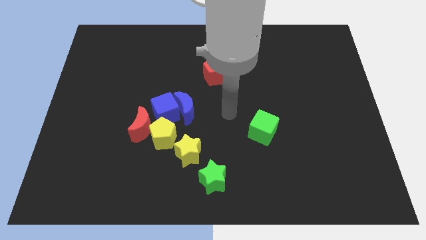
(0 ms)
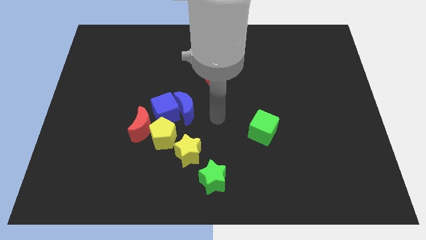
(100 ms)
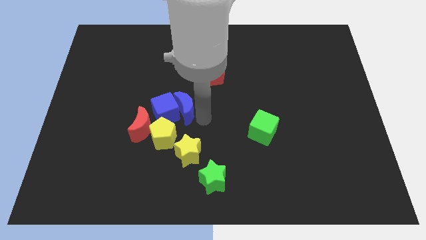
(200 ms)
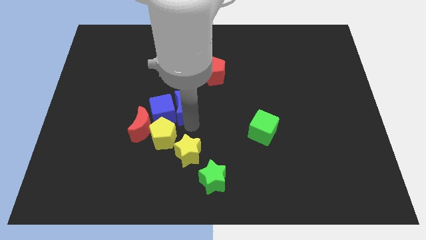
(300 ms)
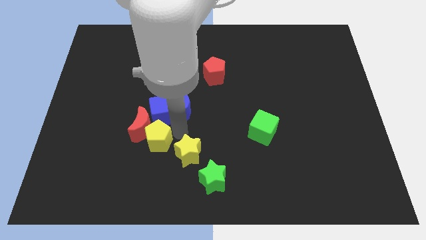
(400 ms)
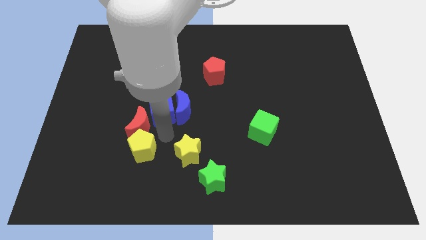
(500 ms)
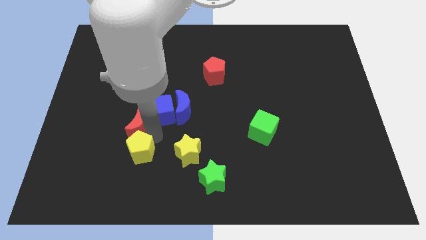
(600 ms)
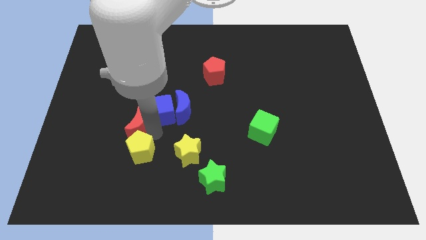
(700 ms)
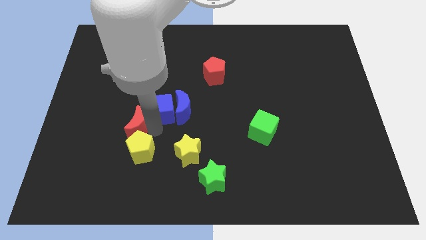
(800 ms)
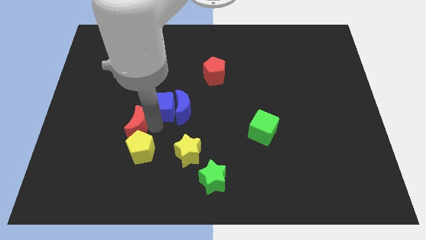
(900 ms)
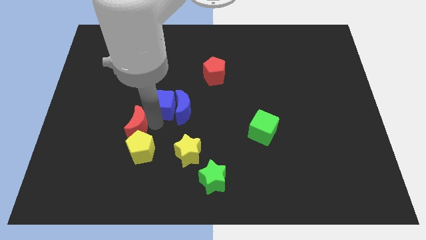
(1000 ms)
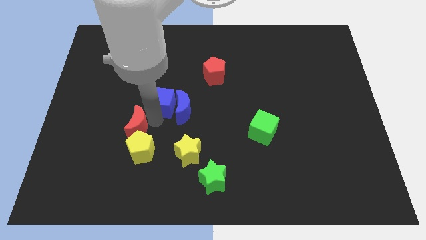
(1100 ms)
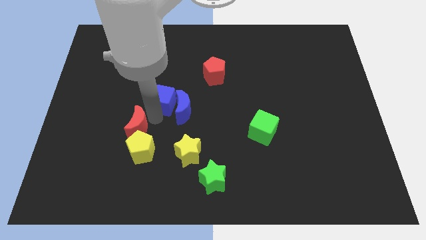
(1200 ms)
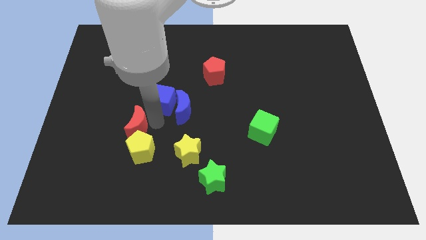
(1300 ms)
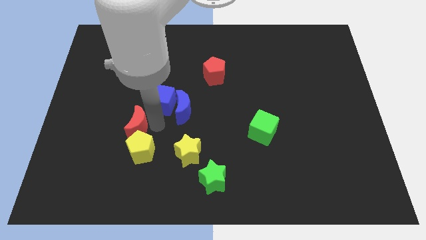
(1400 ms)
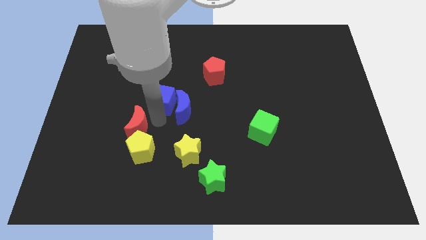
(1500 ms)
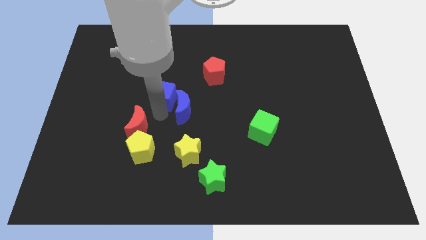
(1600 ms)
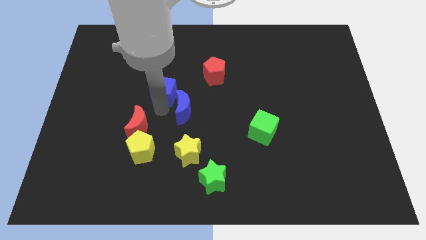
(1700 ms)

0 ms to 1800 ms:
move the blue cube away from the group

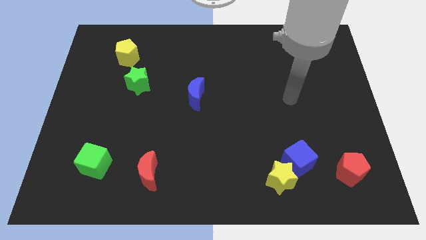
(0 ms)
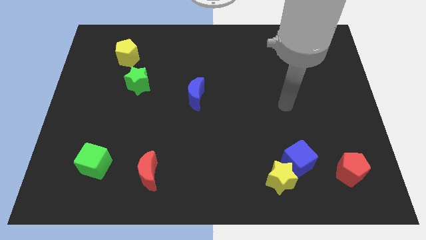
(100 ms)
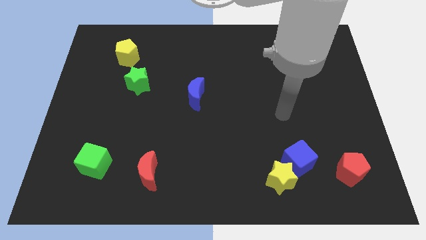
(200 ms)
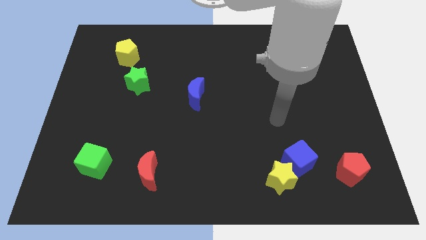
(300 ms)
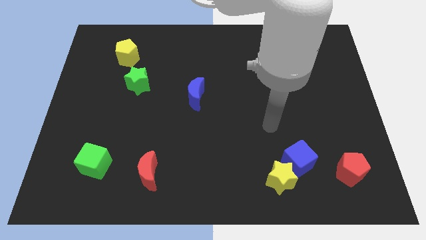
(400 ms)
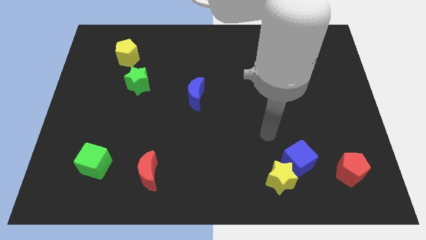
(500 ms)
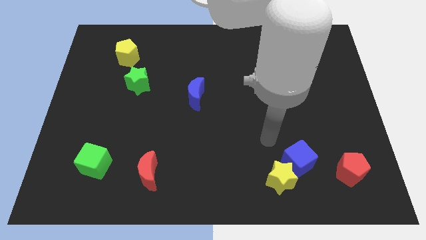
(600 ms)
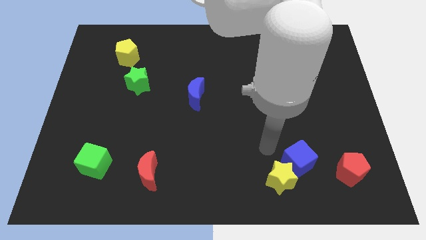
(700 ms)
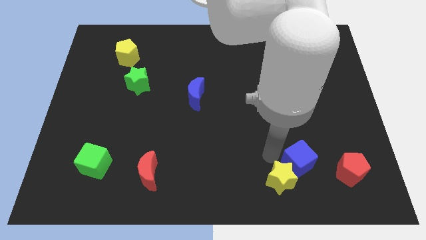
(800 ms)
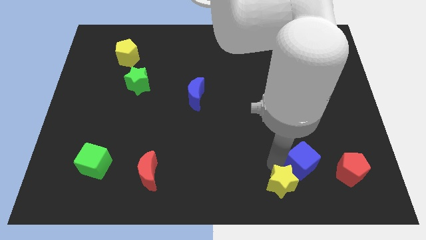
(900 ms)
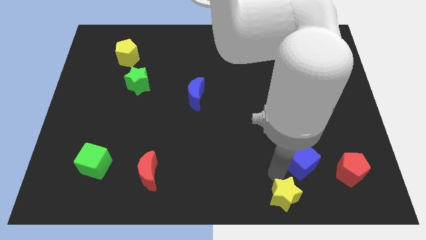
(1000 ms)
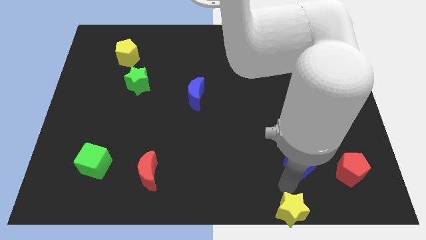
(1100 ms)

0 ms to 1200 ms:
move the blue cube away from the yellow star

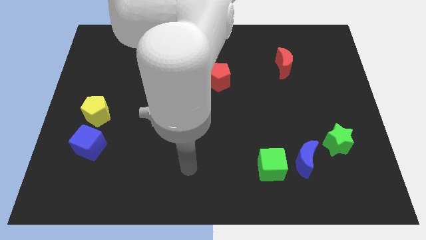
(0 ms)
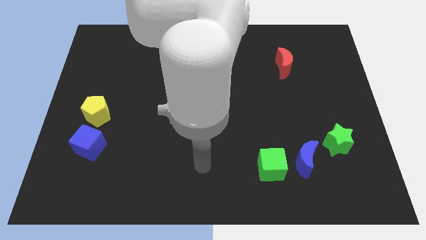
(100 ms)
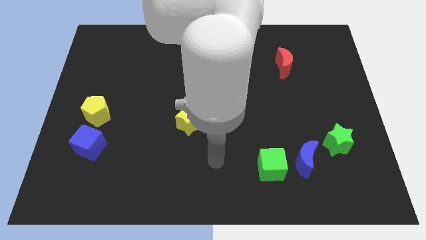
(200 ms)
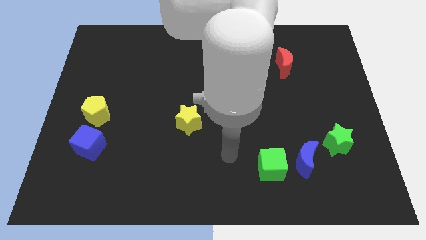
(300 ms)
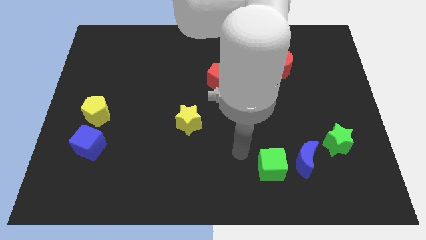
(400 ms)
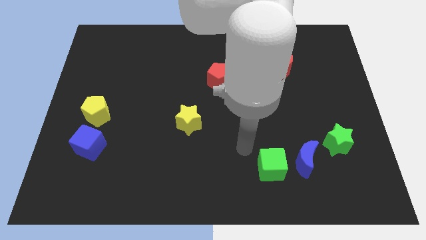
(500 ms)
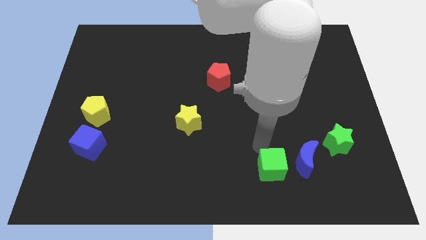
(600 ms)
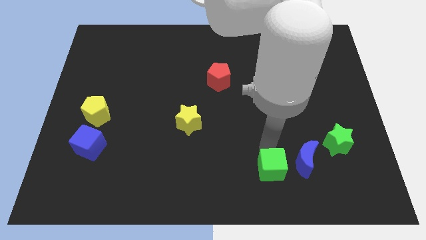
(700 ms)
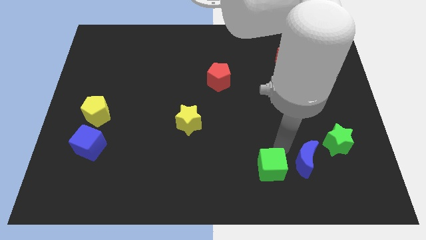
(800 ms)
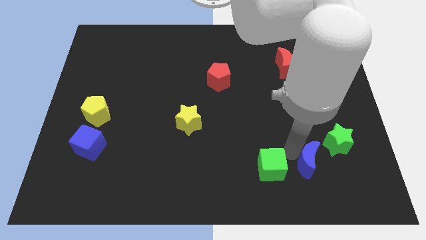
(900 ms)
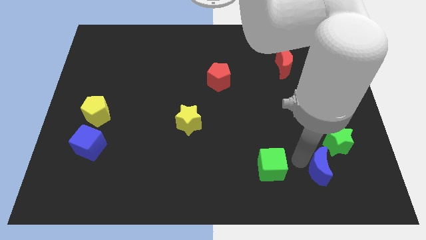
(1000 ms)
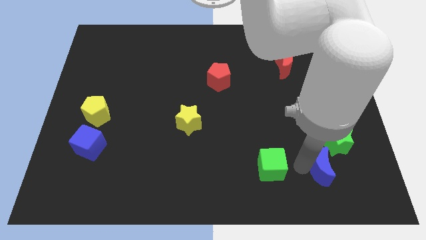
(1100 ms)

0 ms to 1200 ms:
move the green cube away from the blue moon

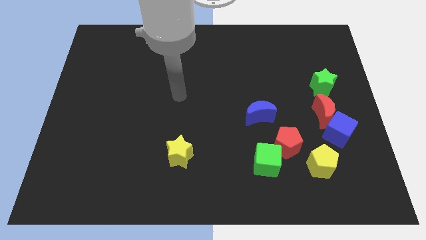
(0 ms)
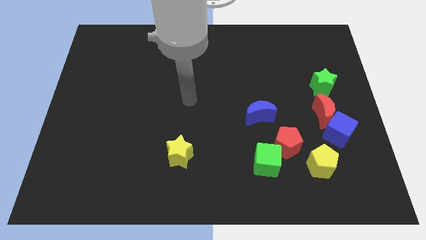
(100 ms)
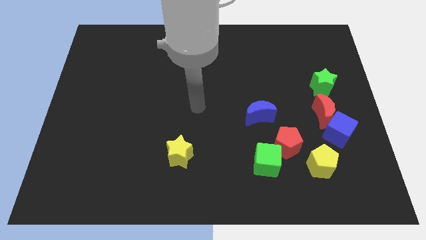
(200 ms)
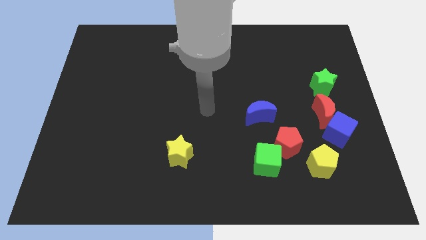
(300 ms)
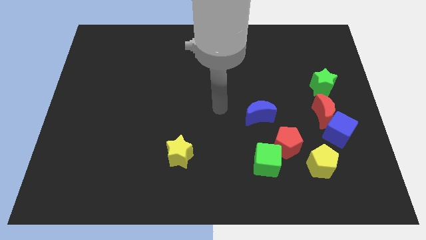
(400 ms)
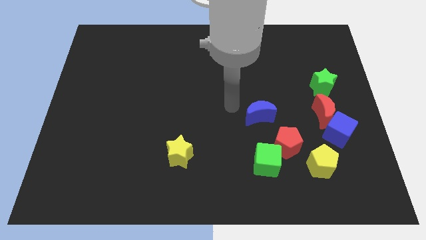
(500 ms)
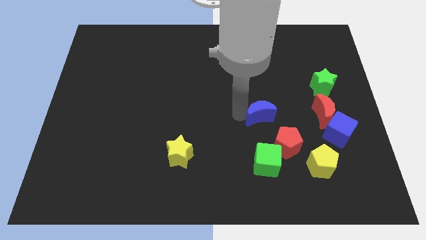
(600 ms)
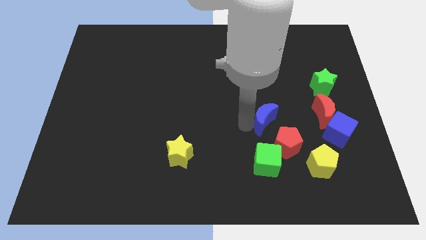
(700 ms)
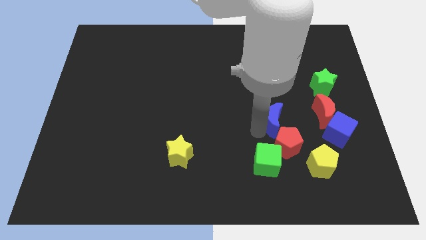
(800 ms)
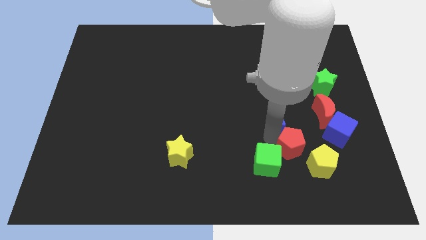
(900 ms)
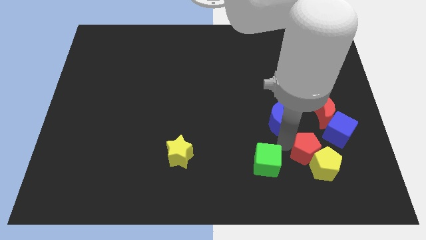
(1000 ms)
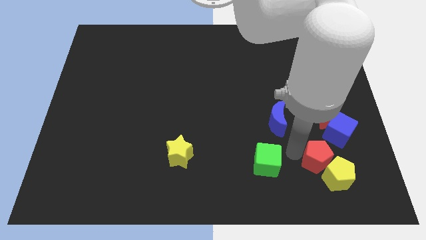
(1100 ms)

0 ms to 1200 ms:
separate the green cube from the red pentagon

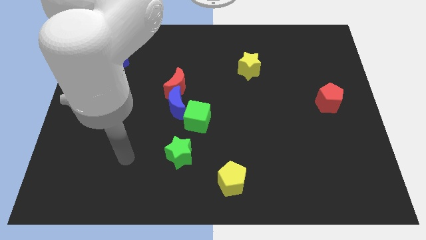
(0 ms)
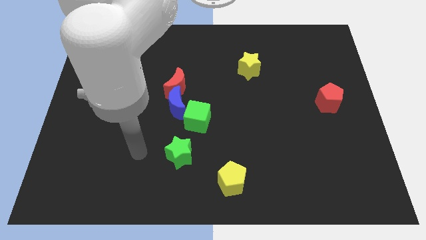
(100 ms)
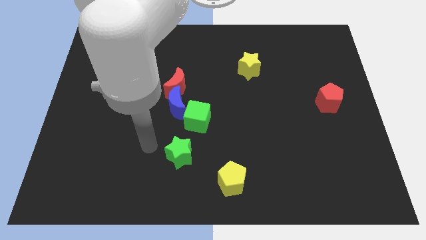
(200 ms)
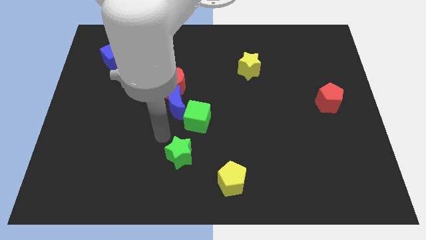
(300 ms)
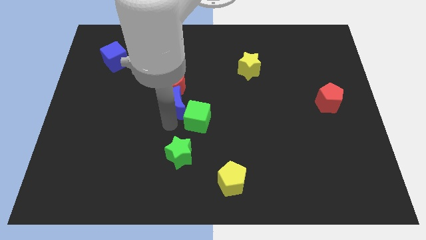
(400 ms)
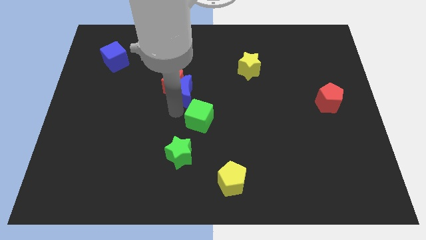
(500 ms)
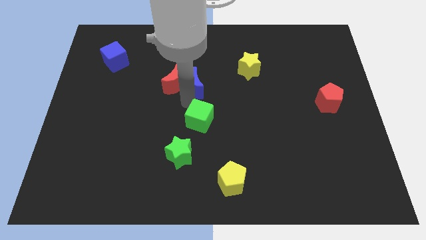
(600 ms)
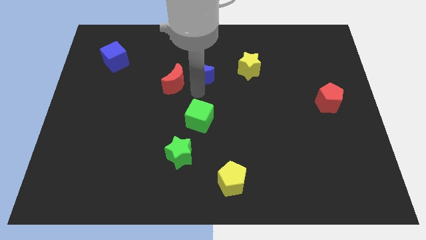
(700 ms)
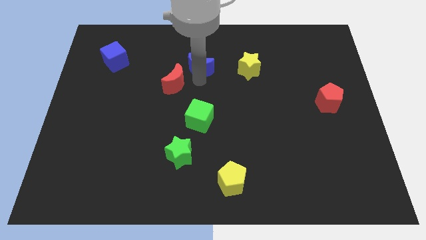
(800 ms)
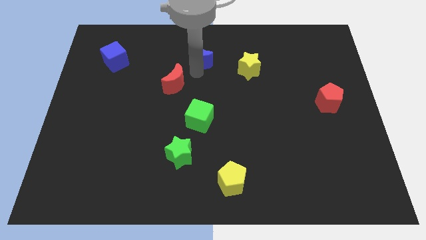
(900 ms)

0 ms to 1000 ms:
separate the red moon from the blue moon

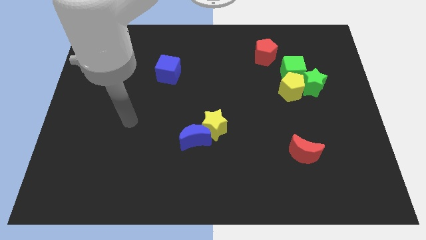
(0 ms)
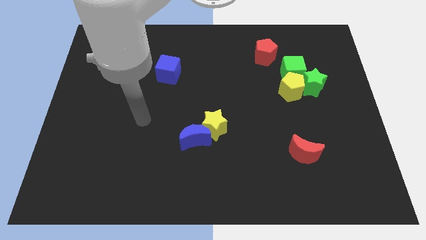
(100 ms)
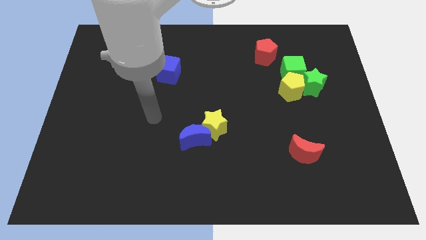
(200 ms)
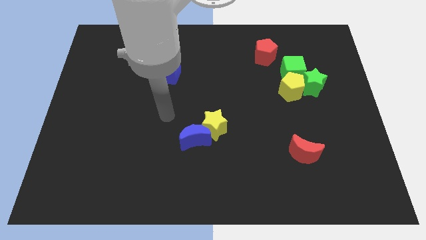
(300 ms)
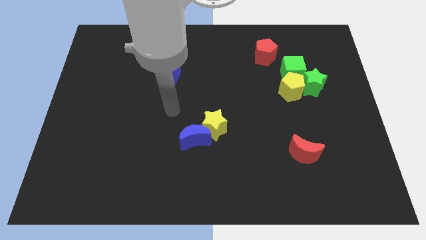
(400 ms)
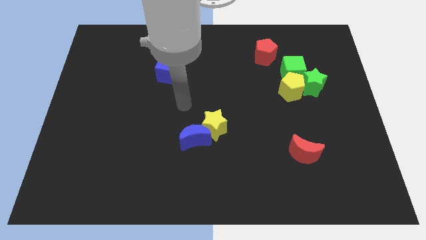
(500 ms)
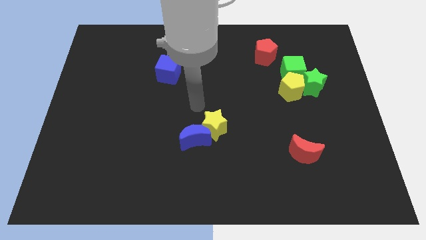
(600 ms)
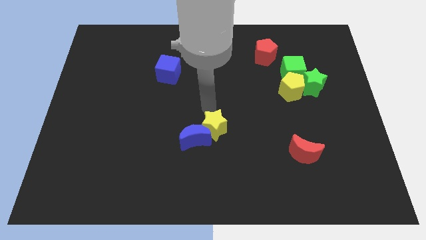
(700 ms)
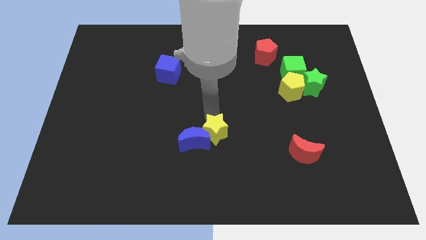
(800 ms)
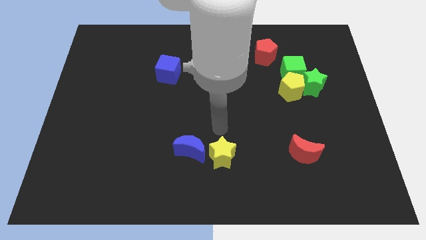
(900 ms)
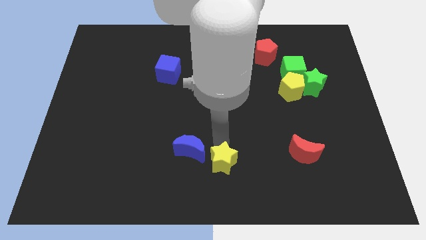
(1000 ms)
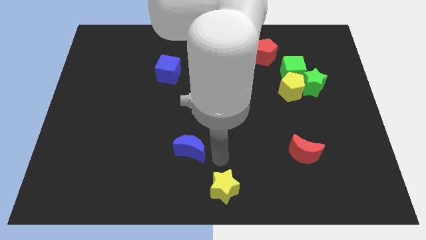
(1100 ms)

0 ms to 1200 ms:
move the blue moon away from the yellow star

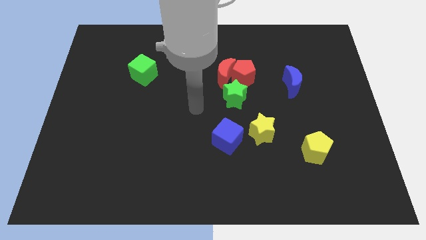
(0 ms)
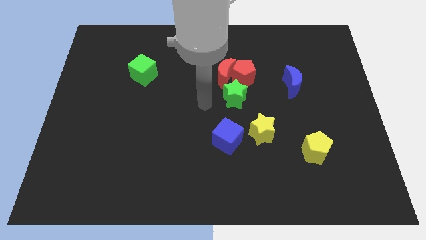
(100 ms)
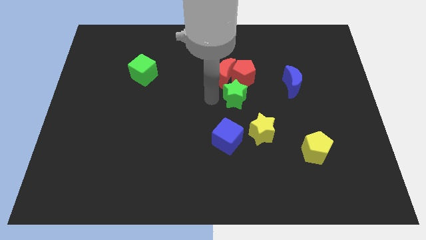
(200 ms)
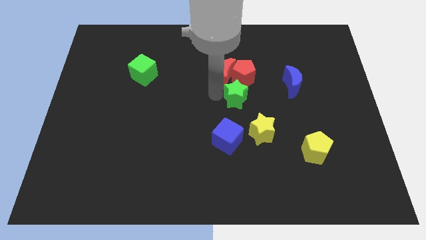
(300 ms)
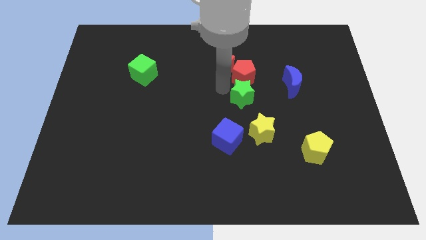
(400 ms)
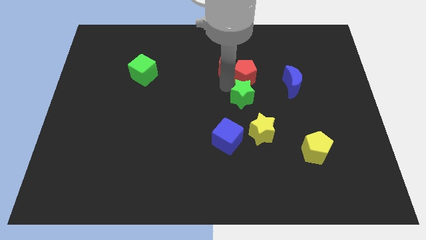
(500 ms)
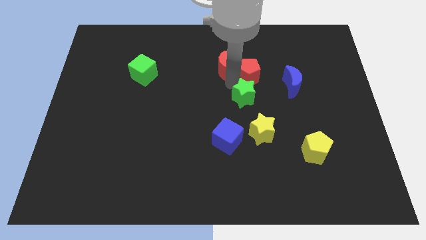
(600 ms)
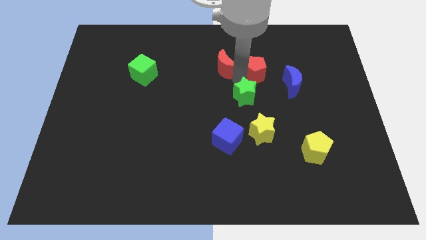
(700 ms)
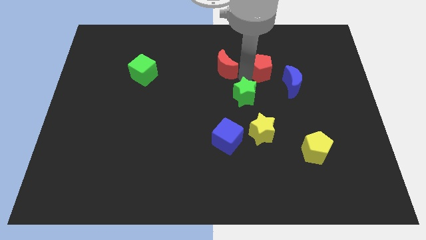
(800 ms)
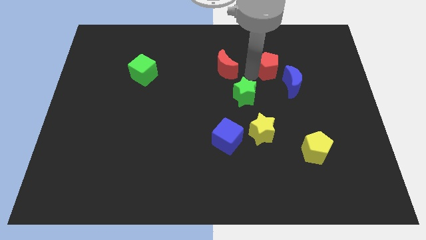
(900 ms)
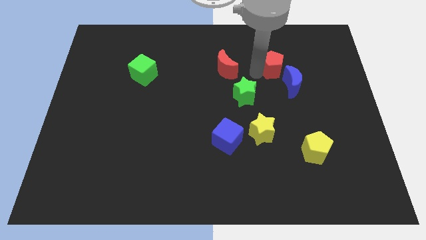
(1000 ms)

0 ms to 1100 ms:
pull the red pentagon apart from the red moon and green star

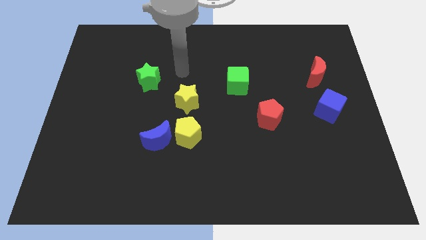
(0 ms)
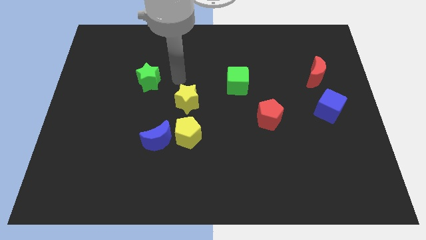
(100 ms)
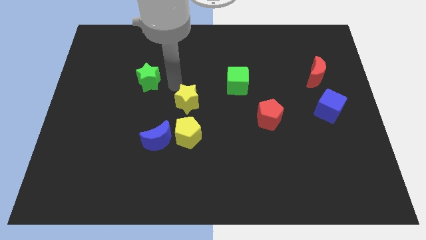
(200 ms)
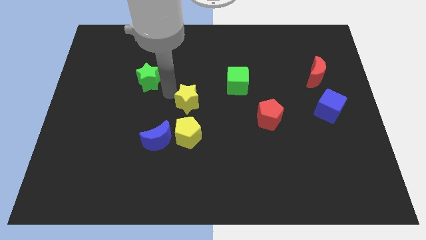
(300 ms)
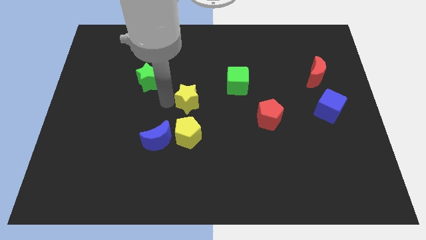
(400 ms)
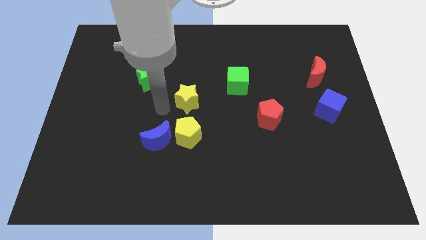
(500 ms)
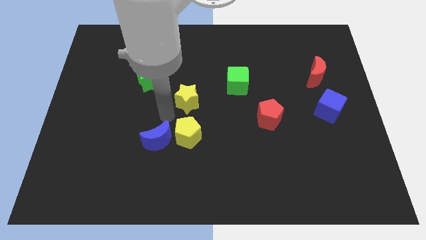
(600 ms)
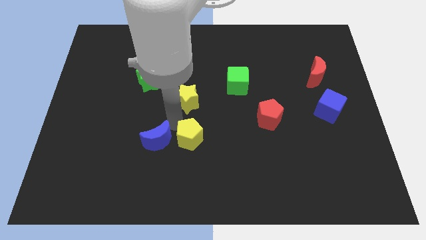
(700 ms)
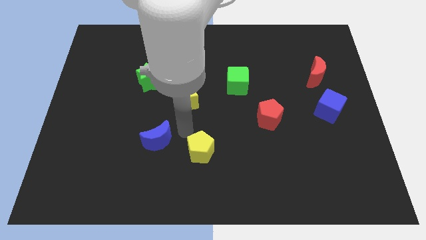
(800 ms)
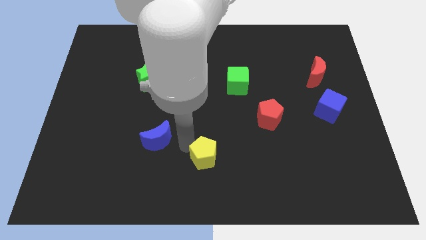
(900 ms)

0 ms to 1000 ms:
pull the blue moon apart from the yellow pentagon
